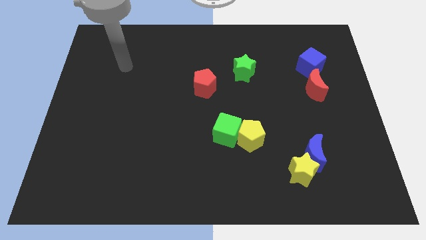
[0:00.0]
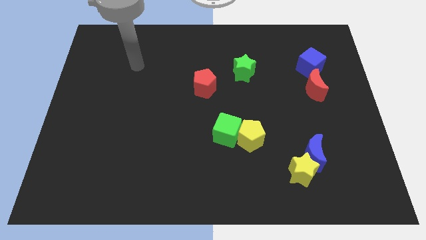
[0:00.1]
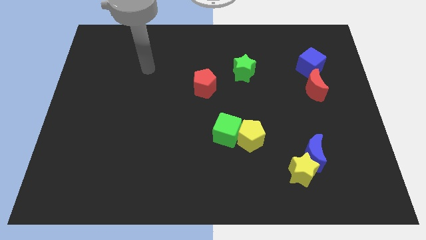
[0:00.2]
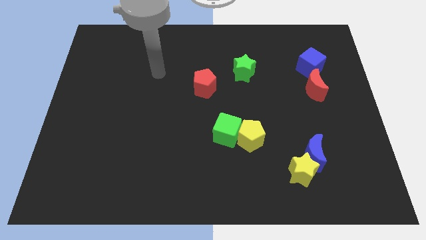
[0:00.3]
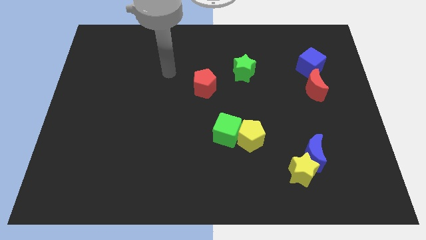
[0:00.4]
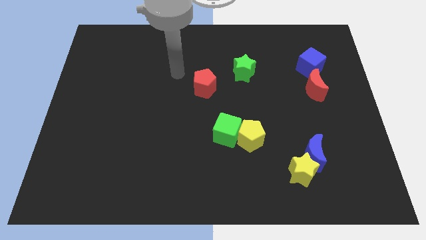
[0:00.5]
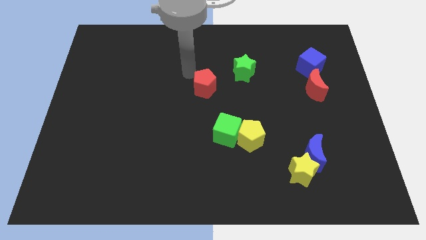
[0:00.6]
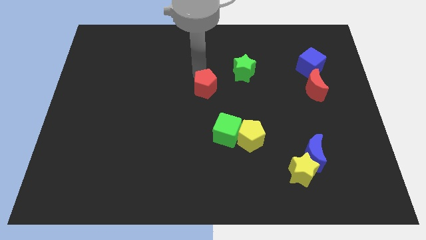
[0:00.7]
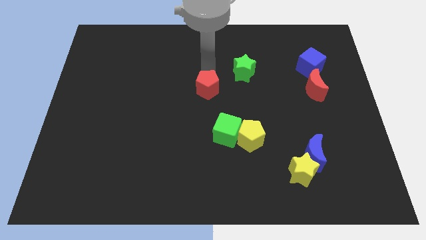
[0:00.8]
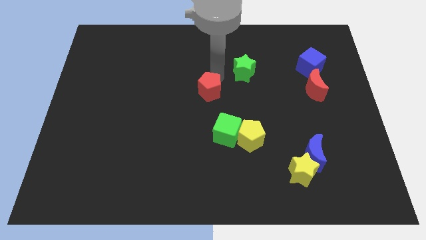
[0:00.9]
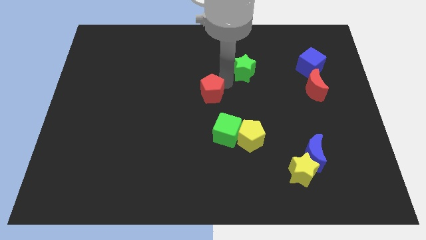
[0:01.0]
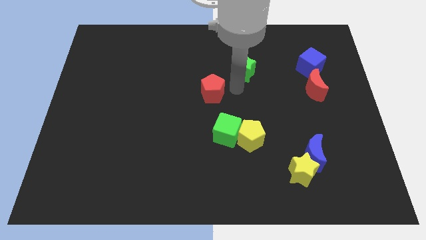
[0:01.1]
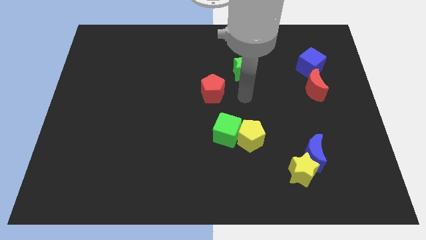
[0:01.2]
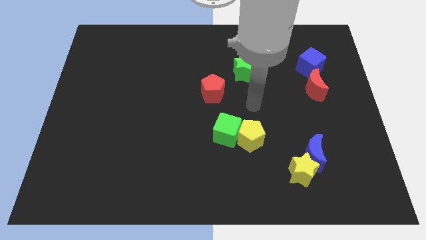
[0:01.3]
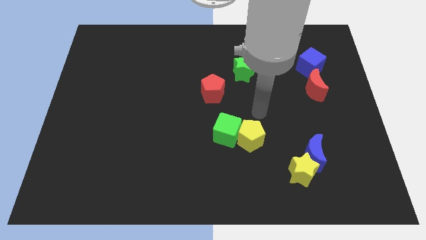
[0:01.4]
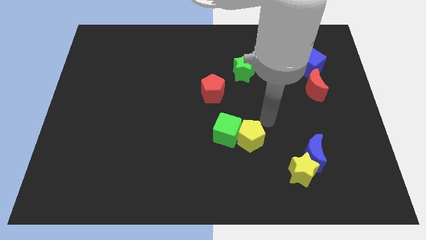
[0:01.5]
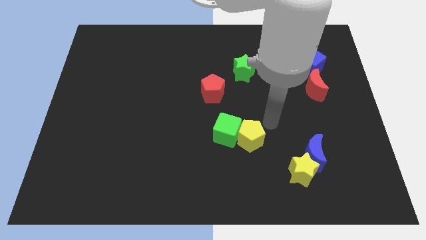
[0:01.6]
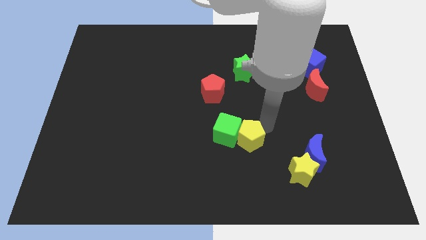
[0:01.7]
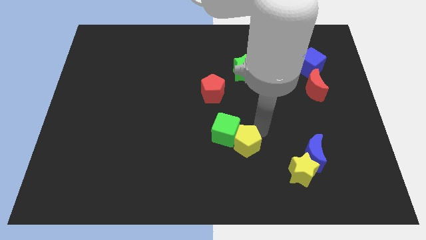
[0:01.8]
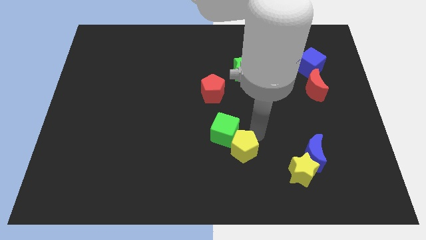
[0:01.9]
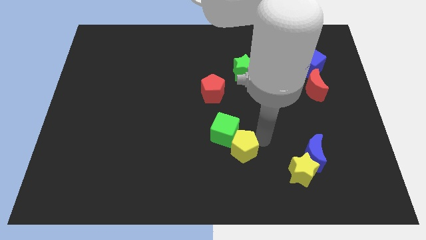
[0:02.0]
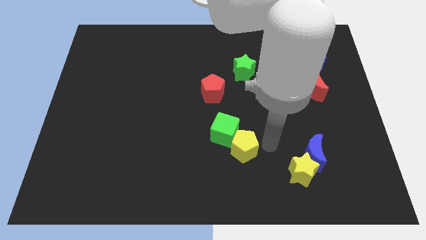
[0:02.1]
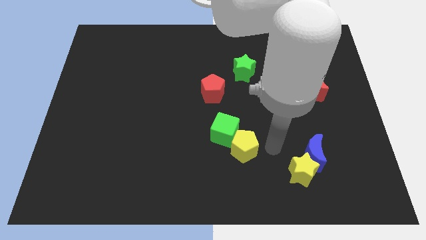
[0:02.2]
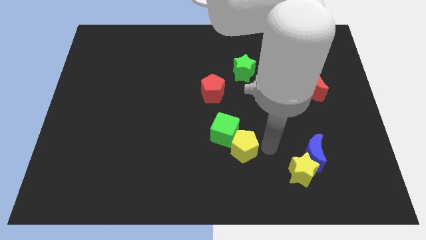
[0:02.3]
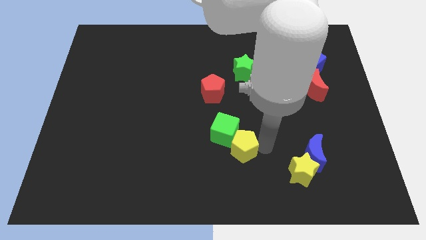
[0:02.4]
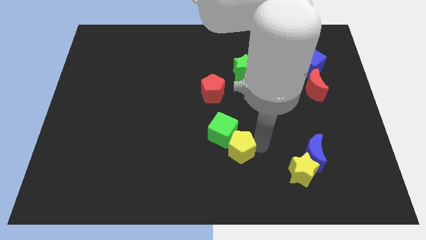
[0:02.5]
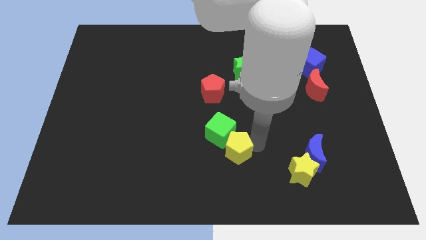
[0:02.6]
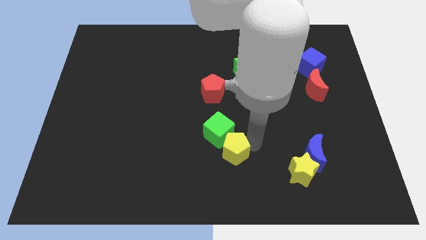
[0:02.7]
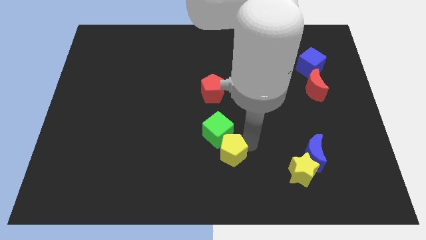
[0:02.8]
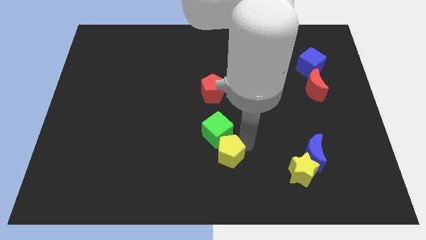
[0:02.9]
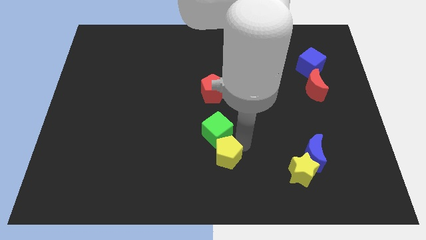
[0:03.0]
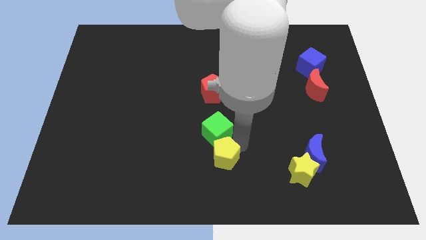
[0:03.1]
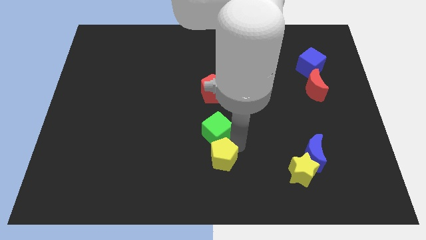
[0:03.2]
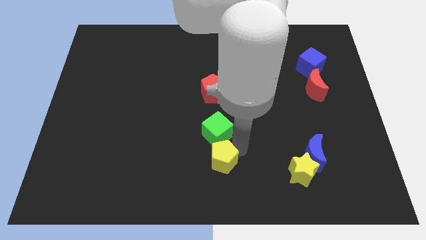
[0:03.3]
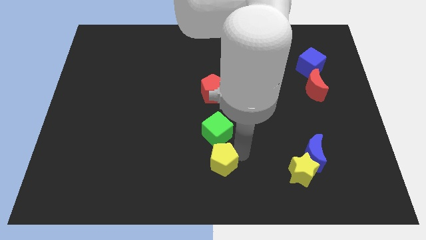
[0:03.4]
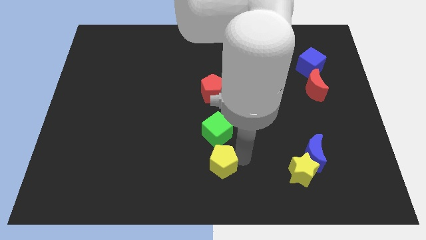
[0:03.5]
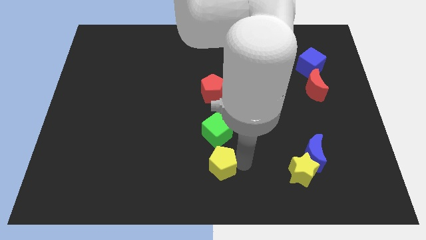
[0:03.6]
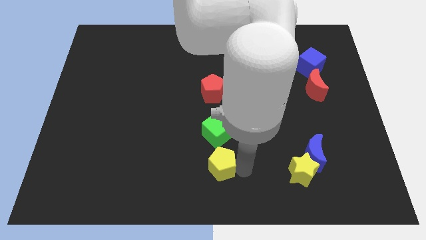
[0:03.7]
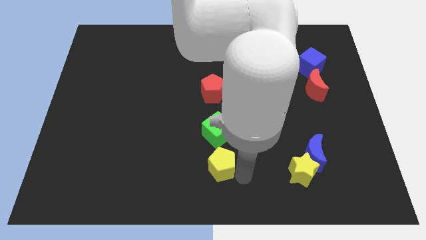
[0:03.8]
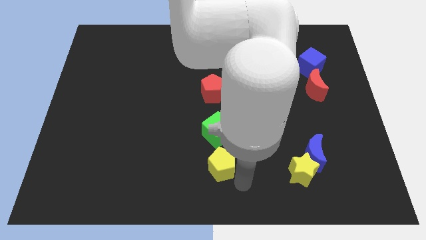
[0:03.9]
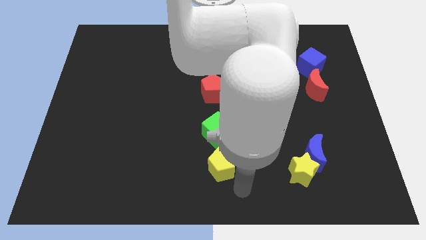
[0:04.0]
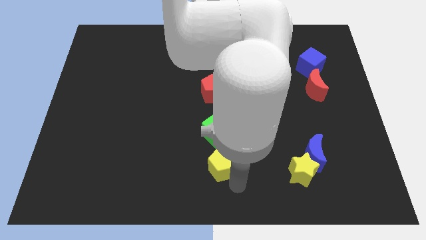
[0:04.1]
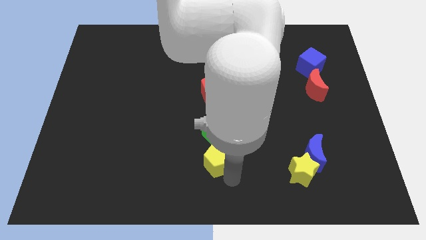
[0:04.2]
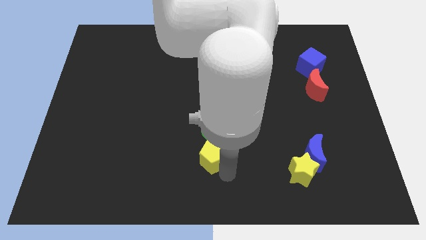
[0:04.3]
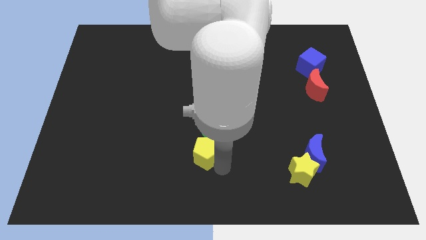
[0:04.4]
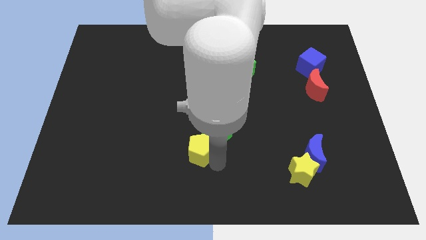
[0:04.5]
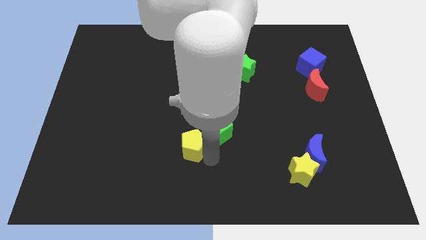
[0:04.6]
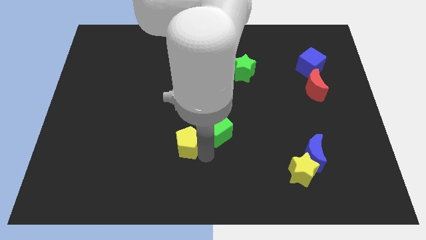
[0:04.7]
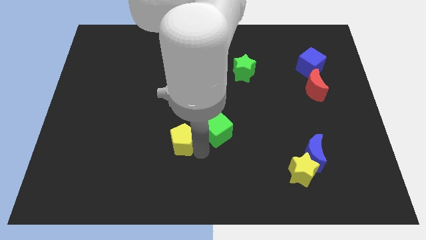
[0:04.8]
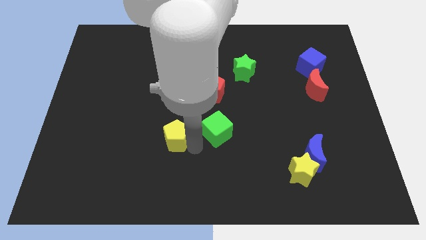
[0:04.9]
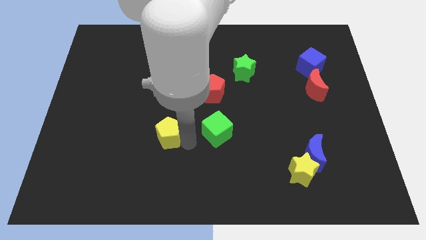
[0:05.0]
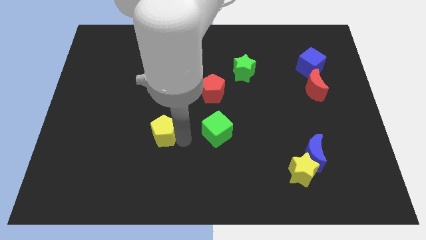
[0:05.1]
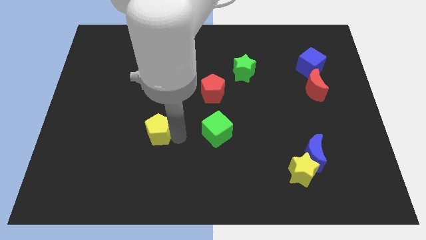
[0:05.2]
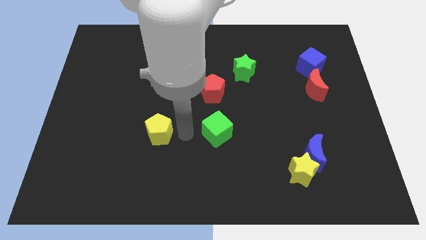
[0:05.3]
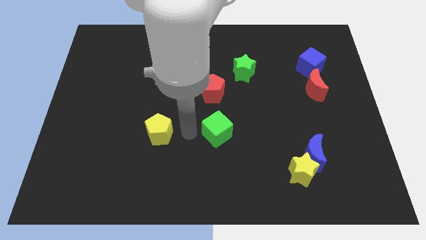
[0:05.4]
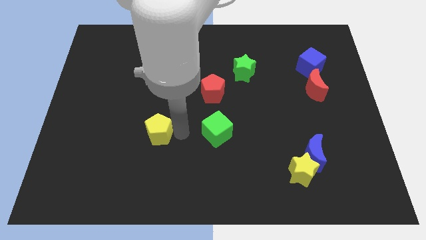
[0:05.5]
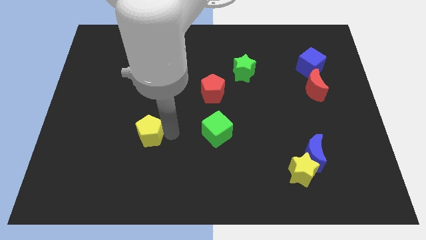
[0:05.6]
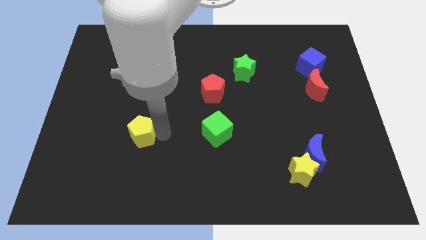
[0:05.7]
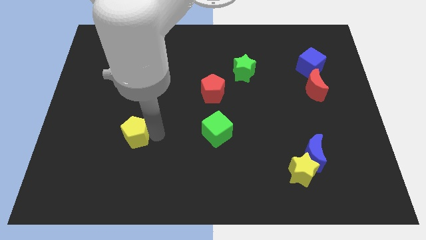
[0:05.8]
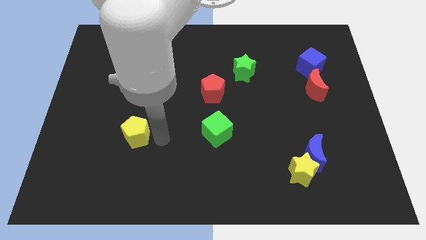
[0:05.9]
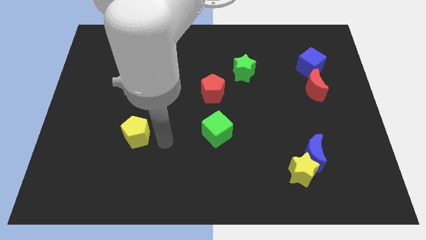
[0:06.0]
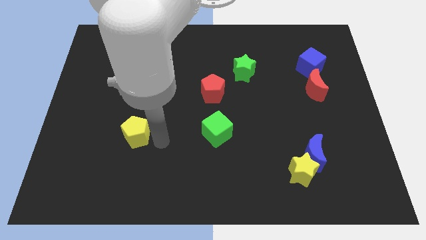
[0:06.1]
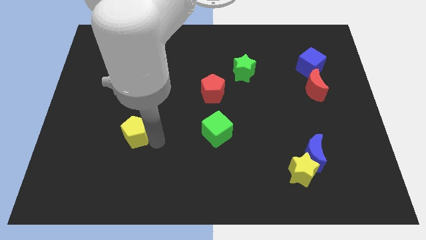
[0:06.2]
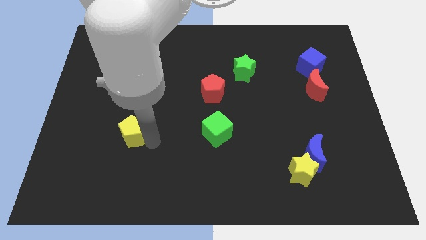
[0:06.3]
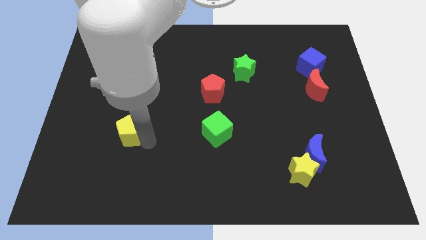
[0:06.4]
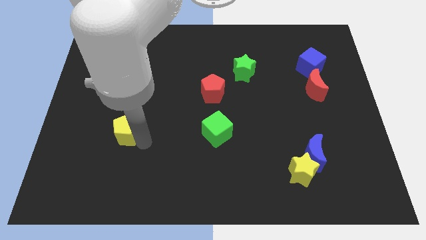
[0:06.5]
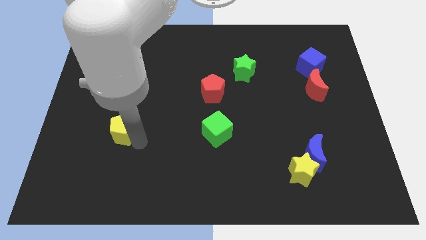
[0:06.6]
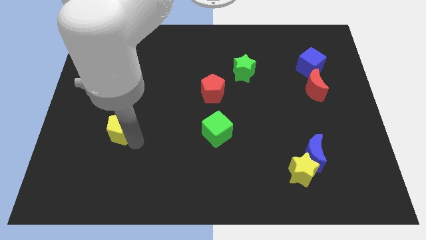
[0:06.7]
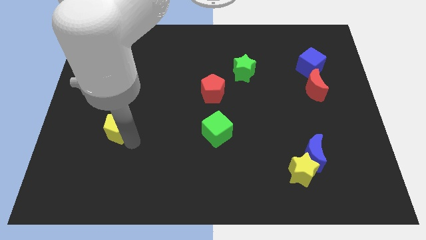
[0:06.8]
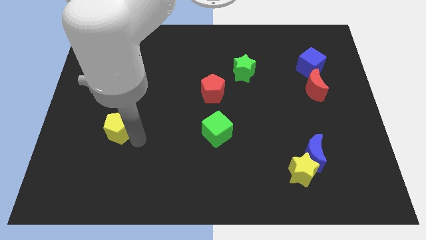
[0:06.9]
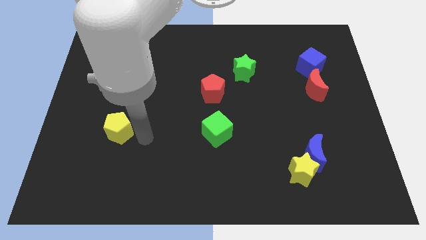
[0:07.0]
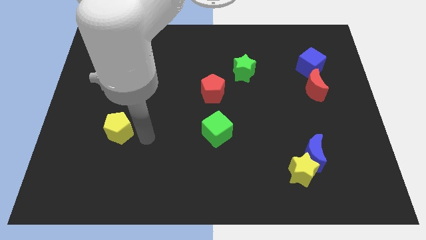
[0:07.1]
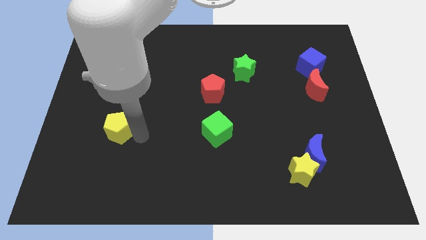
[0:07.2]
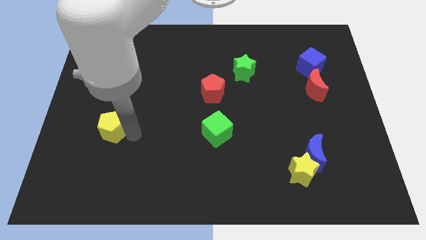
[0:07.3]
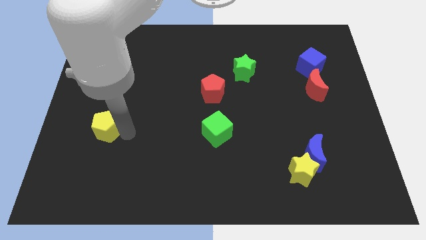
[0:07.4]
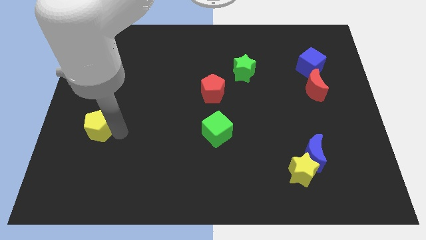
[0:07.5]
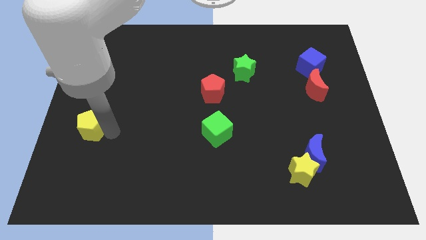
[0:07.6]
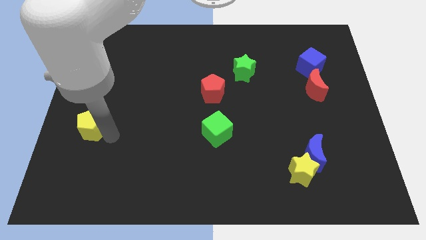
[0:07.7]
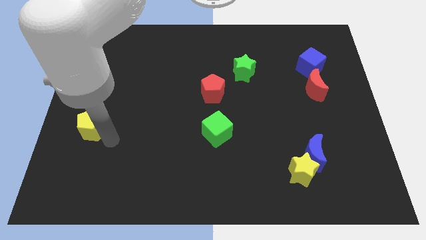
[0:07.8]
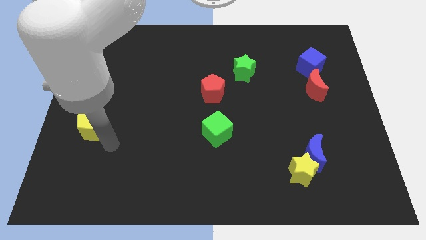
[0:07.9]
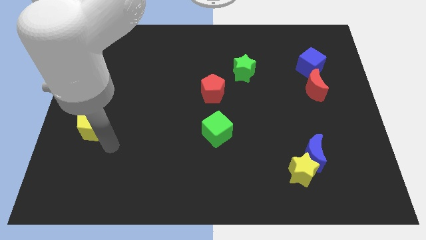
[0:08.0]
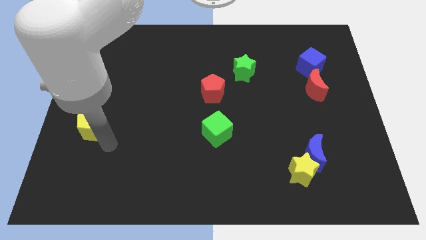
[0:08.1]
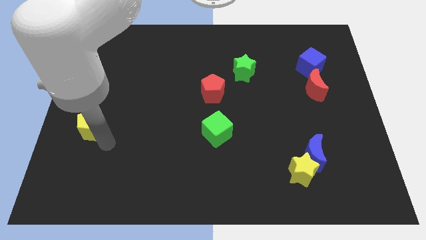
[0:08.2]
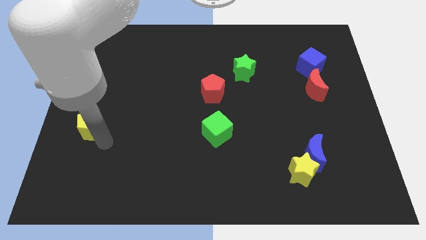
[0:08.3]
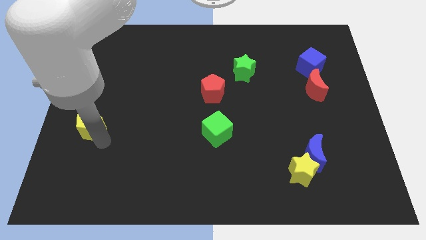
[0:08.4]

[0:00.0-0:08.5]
put the yellow pentagon to the left side of the board
